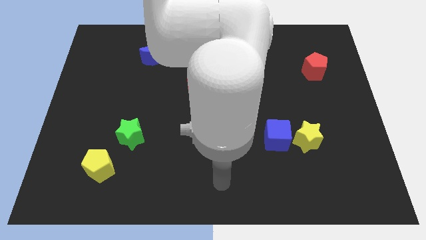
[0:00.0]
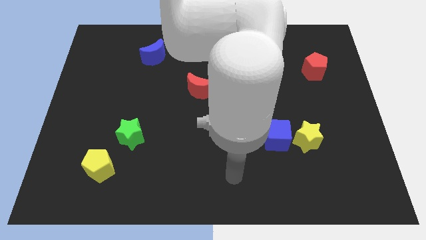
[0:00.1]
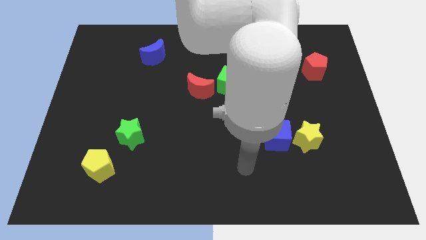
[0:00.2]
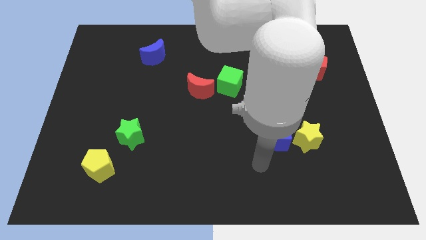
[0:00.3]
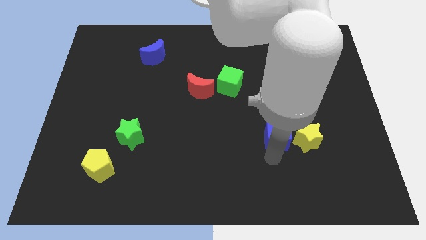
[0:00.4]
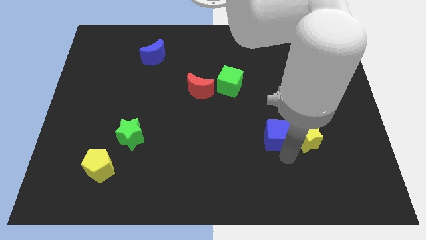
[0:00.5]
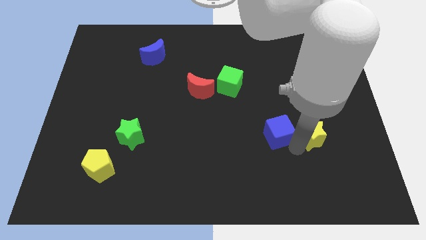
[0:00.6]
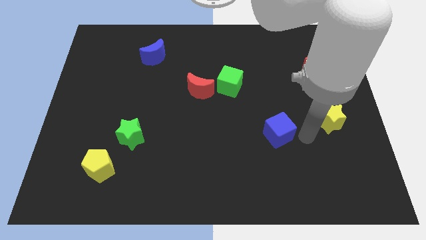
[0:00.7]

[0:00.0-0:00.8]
separate the blue cube from the yellow star

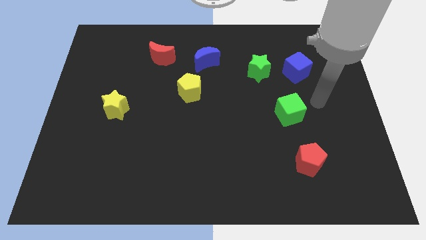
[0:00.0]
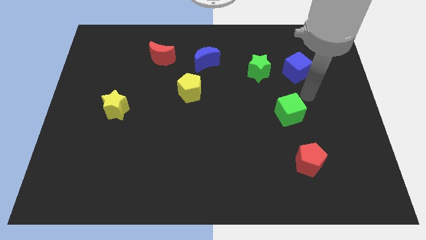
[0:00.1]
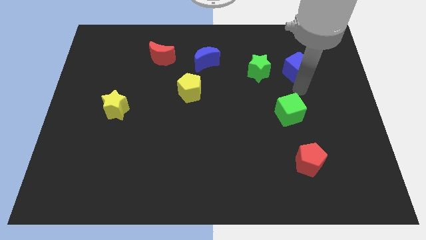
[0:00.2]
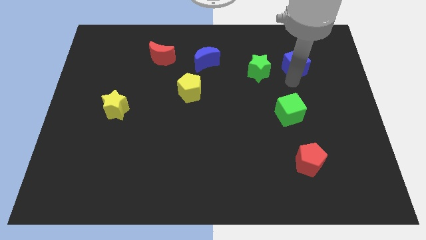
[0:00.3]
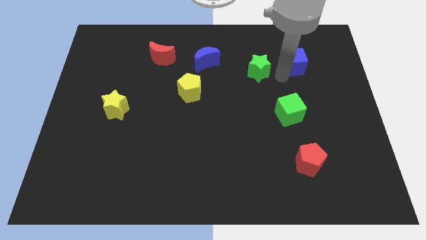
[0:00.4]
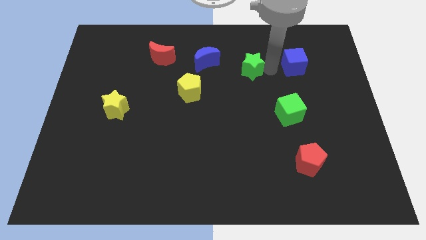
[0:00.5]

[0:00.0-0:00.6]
move the blue cube away from the green star

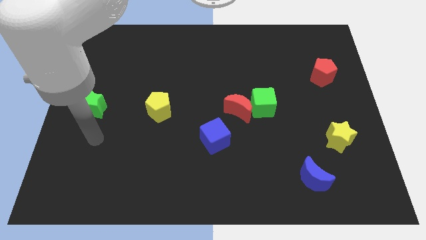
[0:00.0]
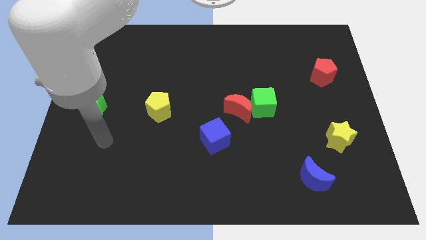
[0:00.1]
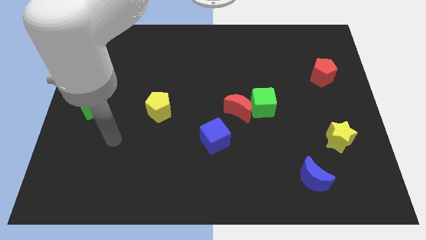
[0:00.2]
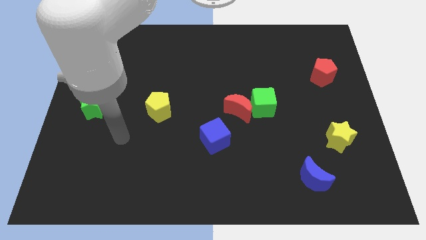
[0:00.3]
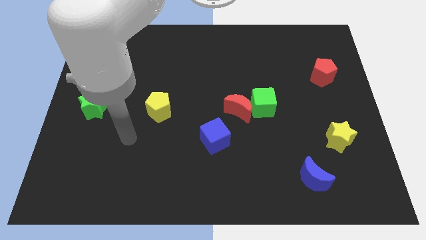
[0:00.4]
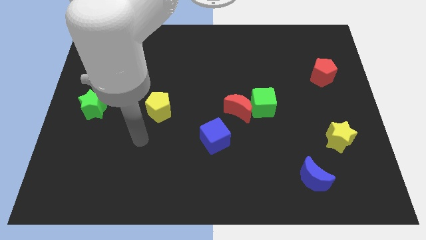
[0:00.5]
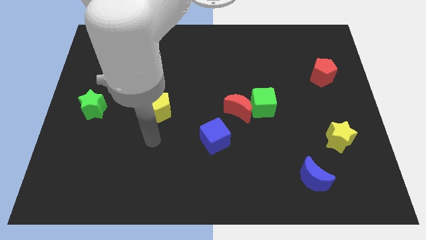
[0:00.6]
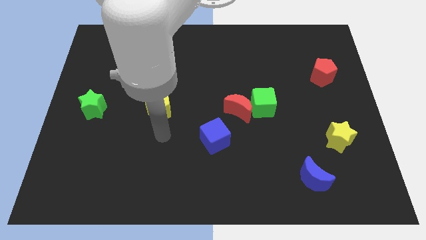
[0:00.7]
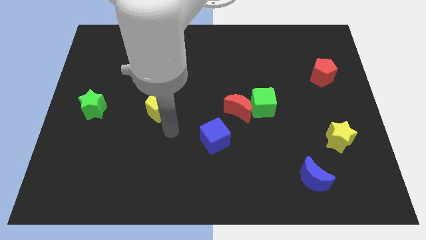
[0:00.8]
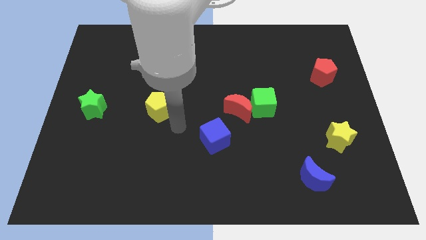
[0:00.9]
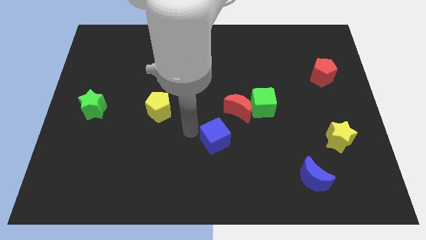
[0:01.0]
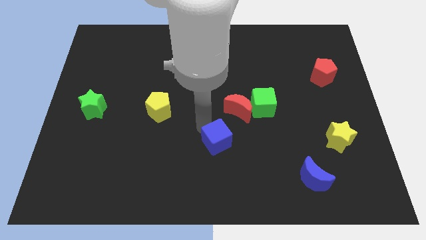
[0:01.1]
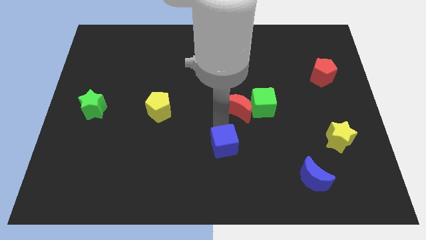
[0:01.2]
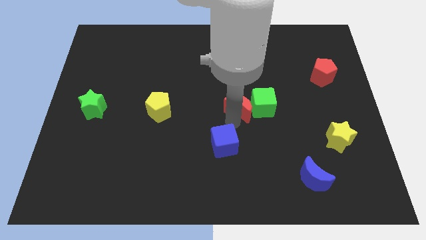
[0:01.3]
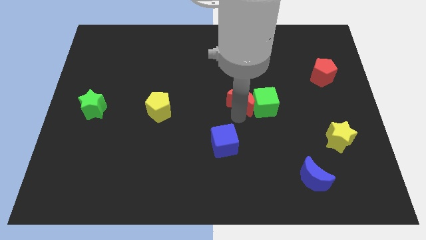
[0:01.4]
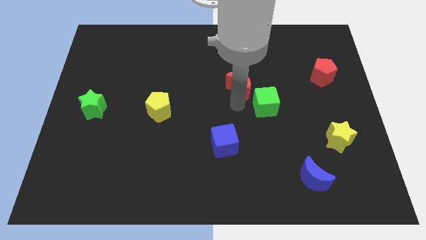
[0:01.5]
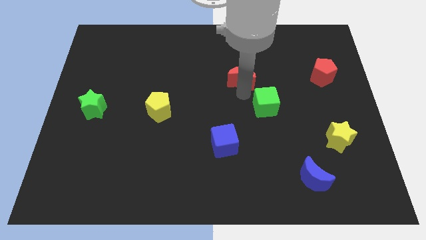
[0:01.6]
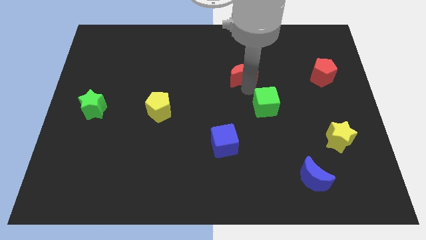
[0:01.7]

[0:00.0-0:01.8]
move the green cube away from the red moon

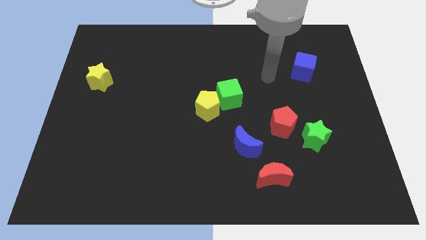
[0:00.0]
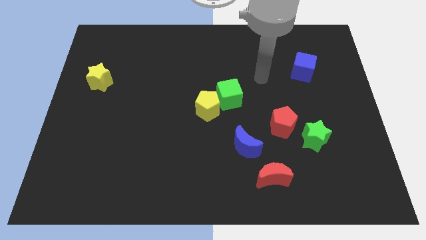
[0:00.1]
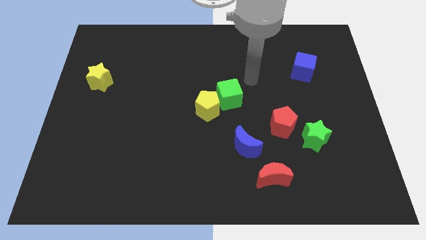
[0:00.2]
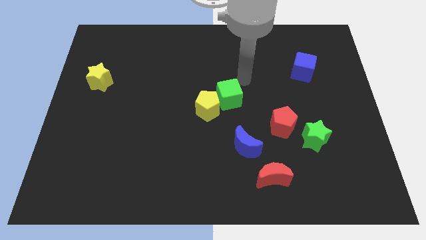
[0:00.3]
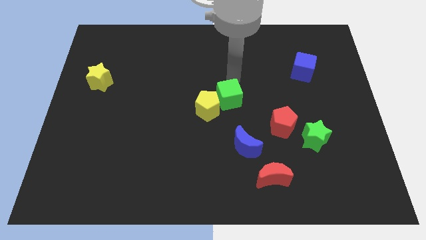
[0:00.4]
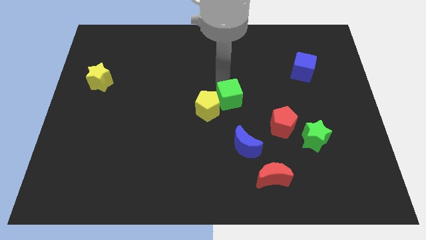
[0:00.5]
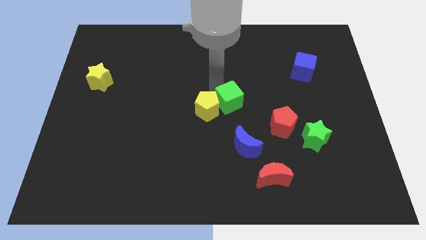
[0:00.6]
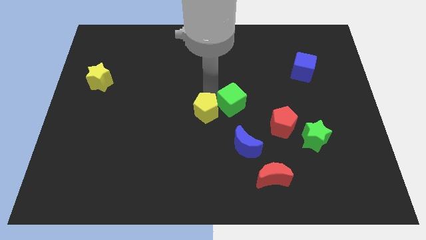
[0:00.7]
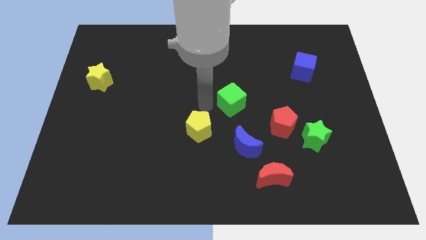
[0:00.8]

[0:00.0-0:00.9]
pull the green cube apart from the yellow pentagon

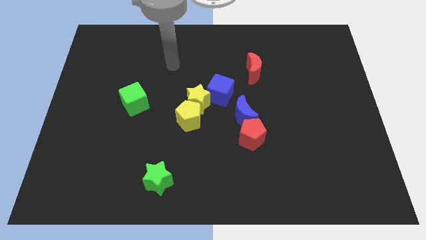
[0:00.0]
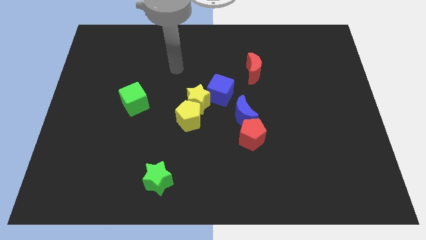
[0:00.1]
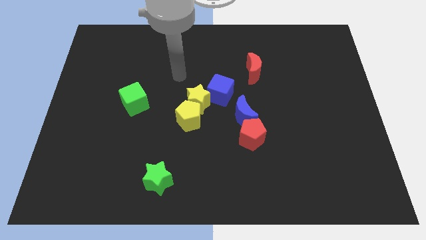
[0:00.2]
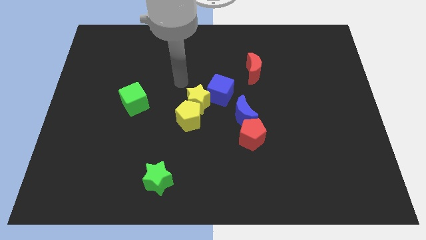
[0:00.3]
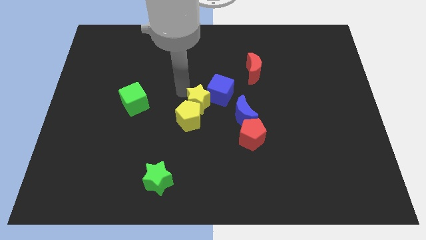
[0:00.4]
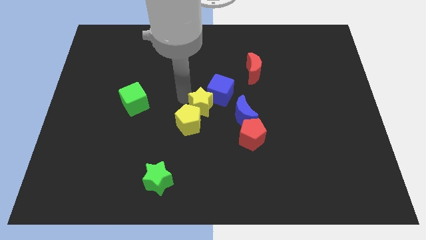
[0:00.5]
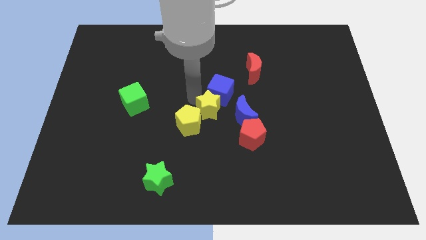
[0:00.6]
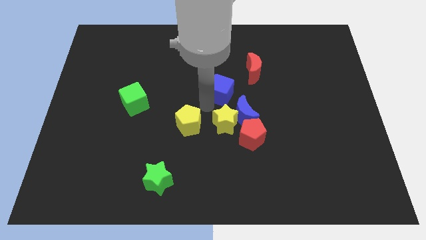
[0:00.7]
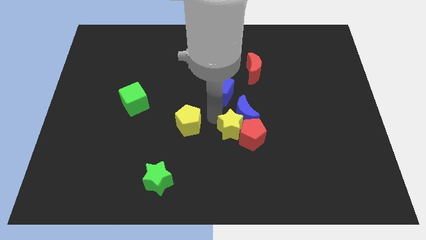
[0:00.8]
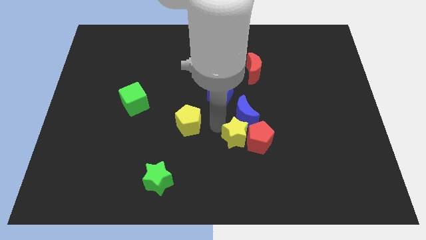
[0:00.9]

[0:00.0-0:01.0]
move the yellow pentagon away from the yellow star

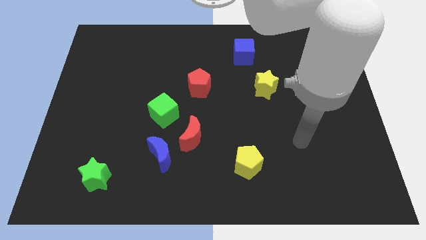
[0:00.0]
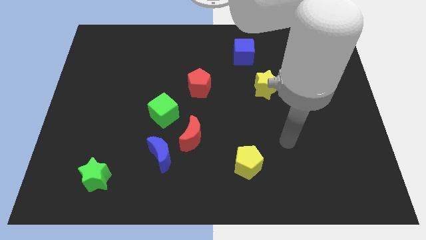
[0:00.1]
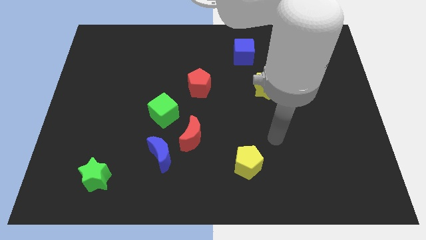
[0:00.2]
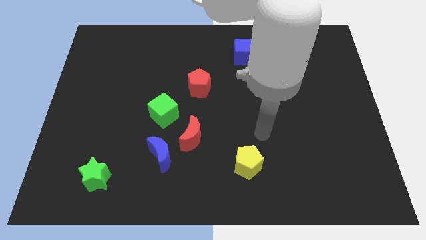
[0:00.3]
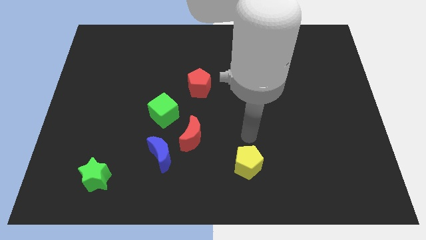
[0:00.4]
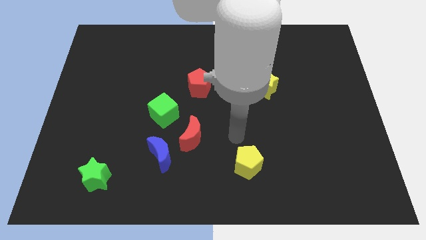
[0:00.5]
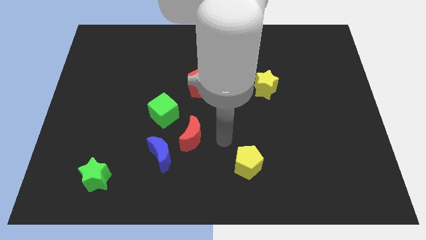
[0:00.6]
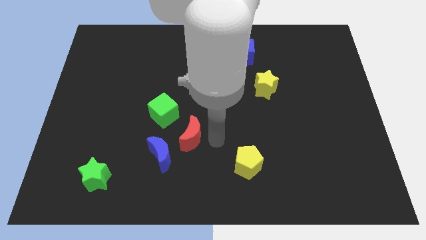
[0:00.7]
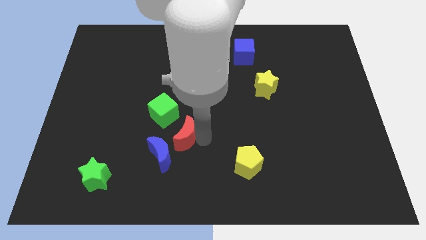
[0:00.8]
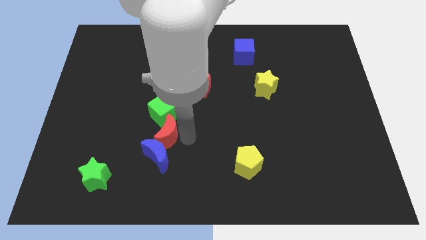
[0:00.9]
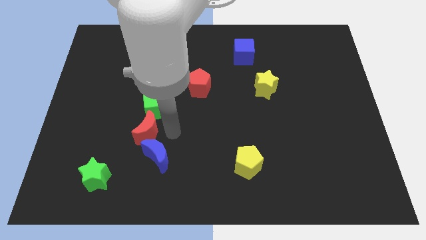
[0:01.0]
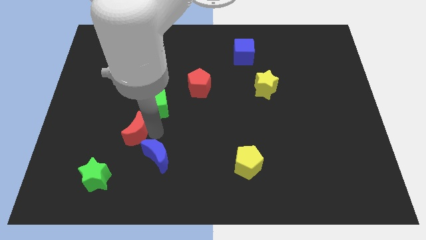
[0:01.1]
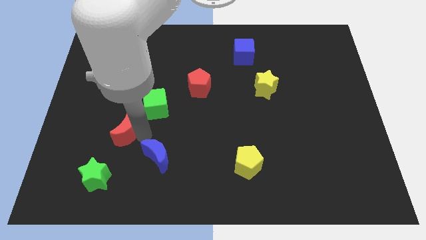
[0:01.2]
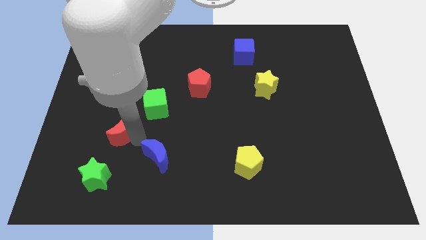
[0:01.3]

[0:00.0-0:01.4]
separate the blue moon from the red moon

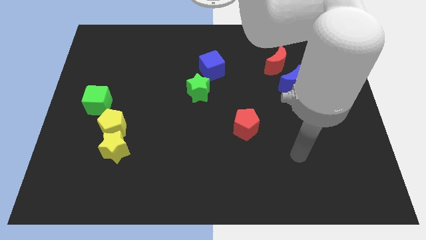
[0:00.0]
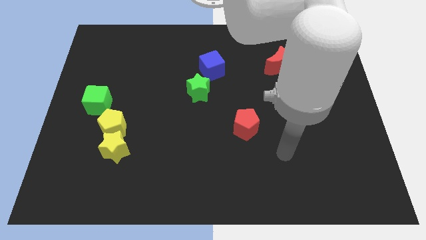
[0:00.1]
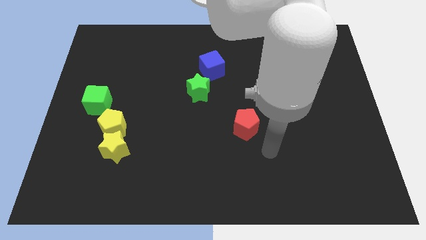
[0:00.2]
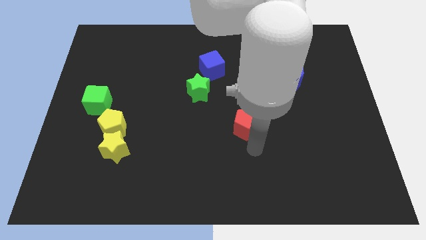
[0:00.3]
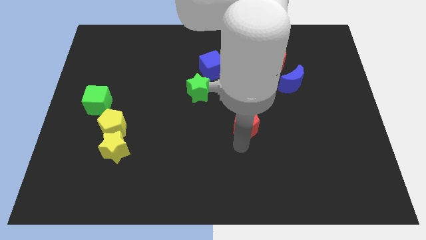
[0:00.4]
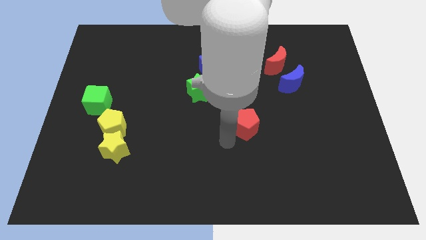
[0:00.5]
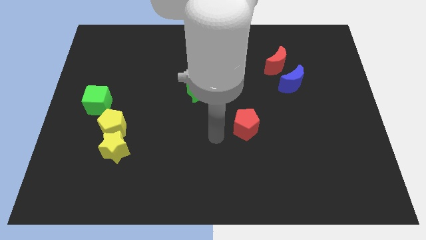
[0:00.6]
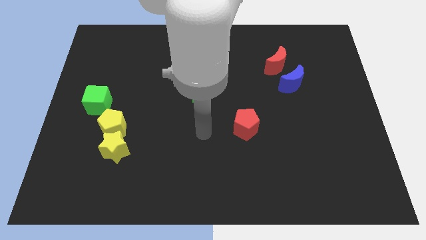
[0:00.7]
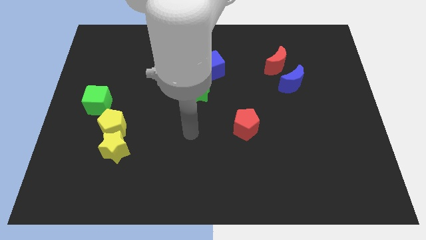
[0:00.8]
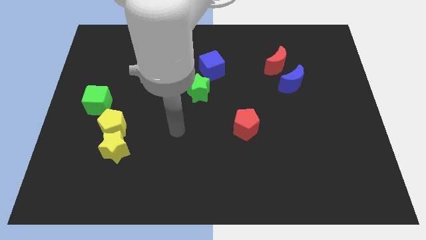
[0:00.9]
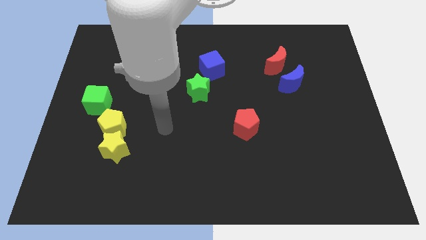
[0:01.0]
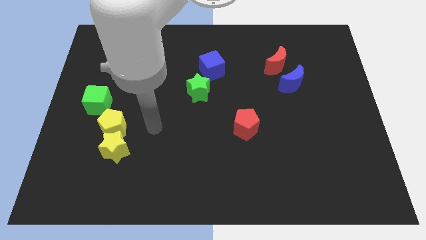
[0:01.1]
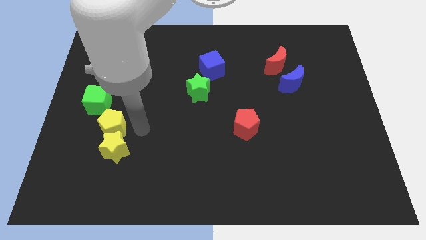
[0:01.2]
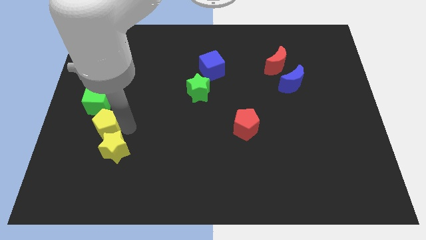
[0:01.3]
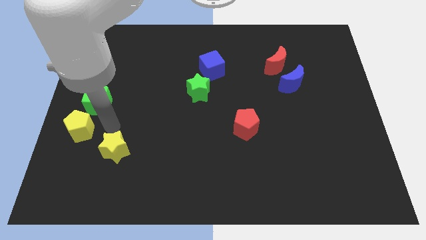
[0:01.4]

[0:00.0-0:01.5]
pull the yellow star apart from the yellow pentagon

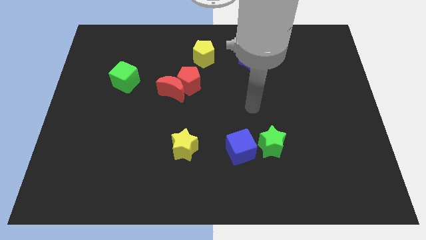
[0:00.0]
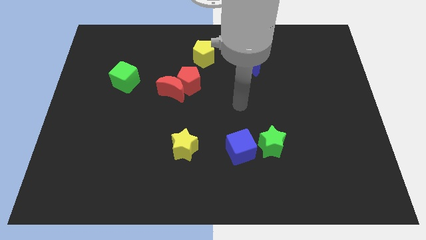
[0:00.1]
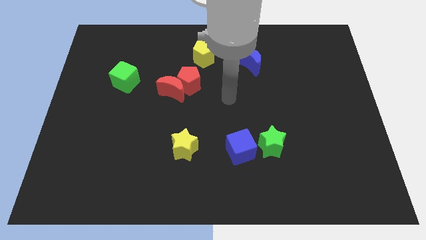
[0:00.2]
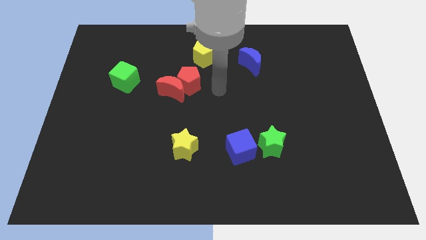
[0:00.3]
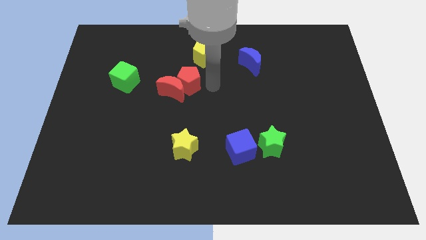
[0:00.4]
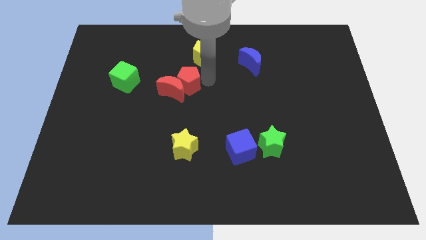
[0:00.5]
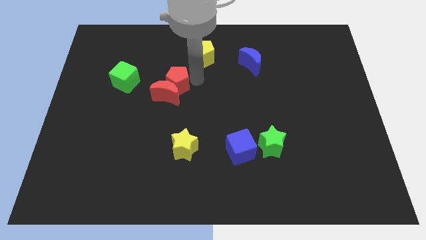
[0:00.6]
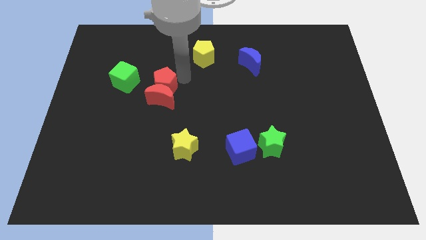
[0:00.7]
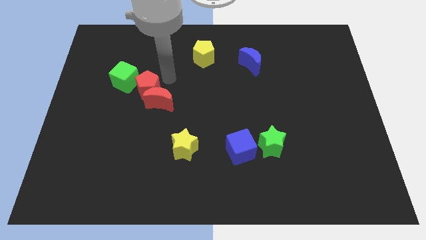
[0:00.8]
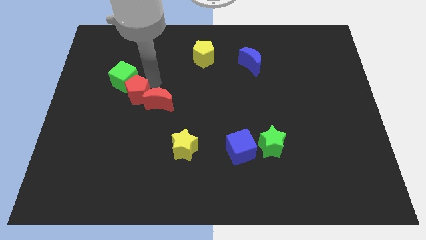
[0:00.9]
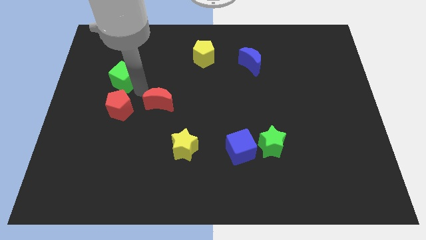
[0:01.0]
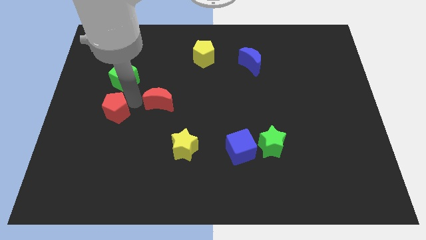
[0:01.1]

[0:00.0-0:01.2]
move the red moon away from the red pentagon
